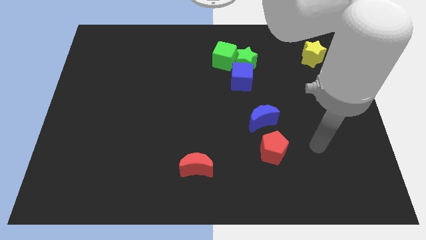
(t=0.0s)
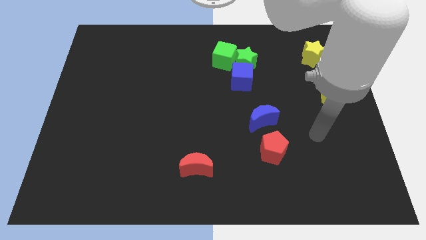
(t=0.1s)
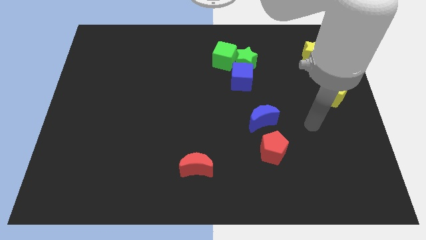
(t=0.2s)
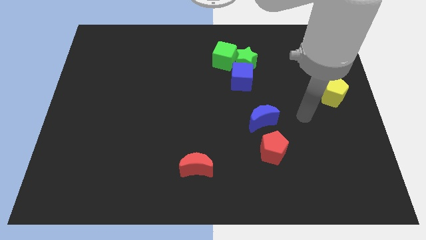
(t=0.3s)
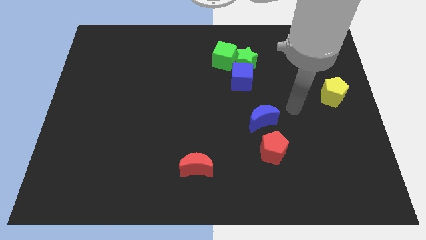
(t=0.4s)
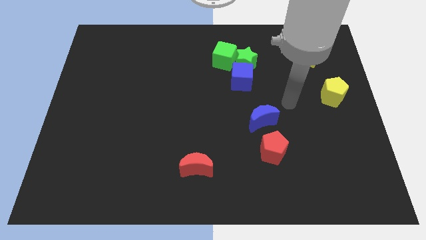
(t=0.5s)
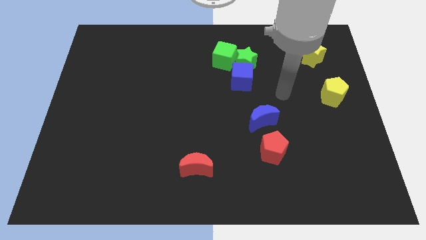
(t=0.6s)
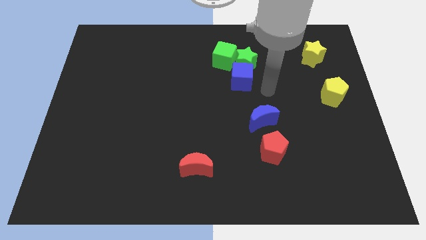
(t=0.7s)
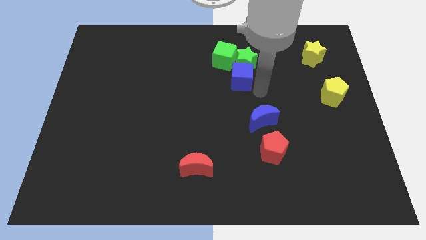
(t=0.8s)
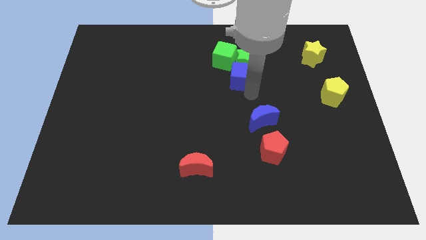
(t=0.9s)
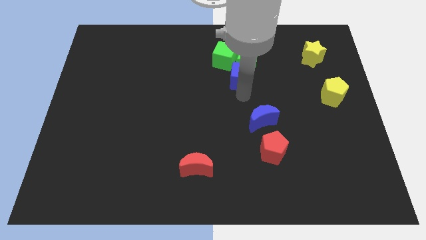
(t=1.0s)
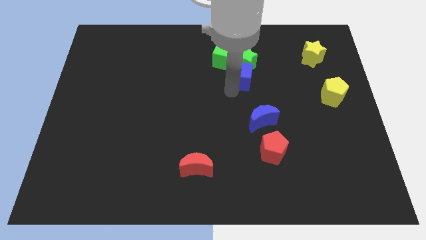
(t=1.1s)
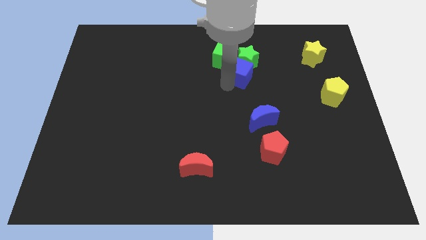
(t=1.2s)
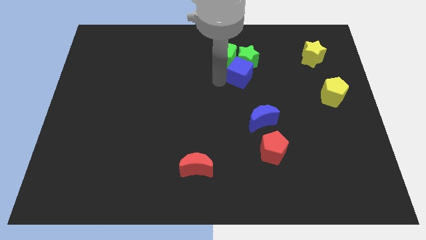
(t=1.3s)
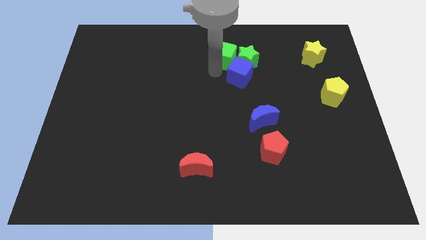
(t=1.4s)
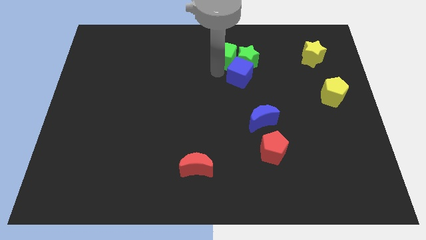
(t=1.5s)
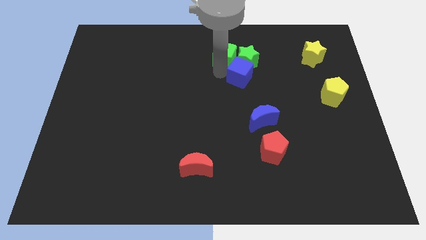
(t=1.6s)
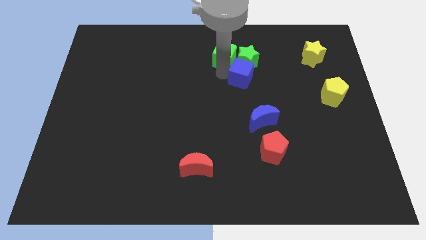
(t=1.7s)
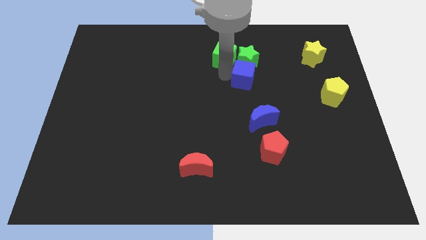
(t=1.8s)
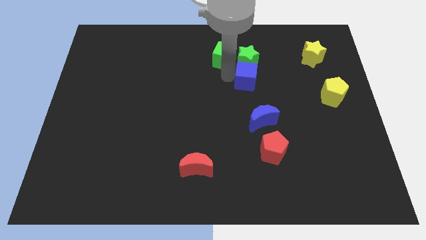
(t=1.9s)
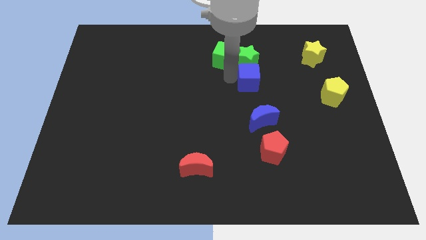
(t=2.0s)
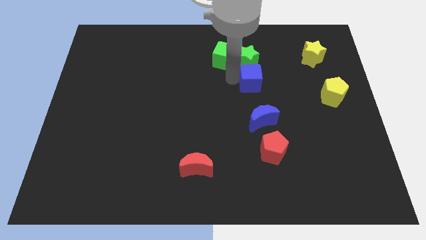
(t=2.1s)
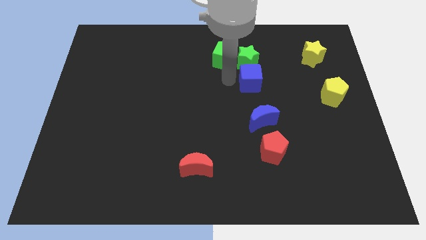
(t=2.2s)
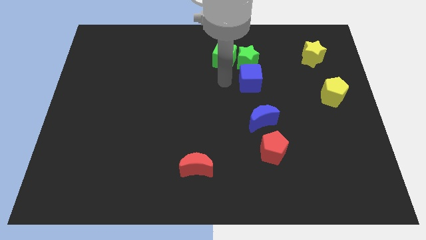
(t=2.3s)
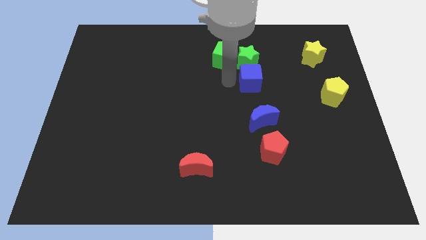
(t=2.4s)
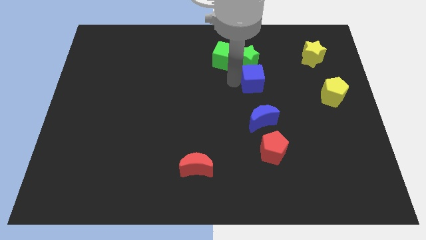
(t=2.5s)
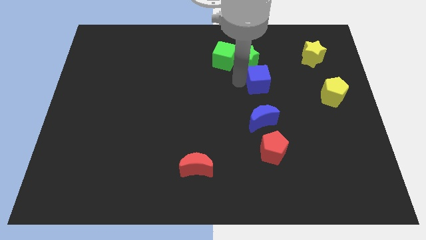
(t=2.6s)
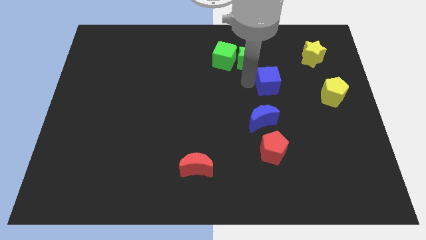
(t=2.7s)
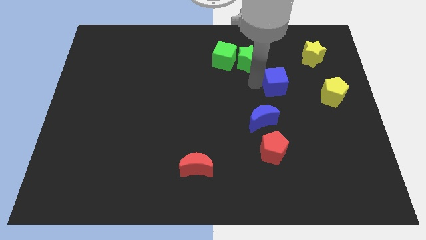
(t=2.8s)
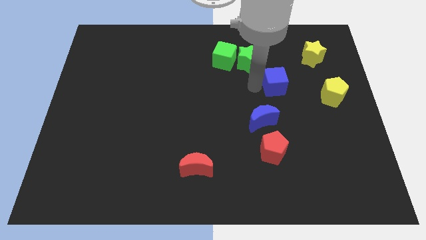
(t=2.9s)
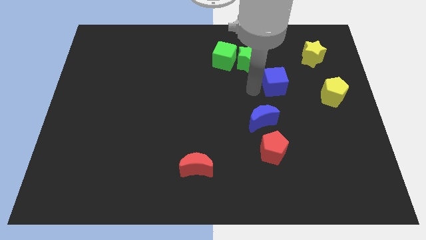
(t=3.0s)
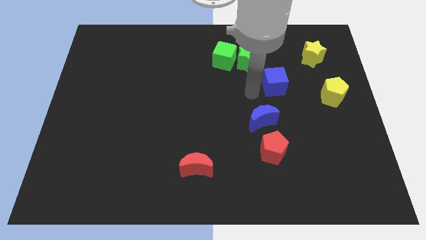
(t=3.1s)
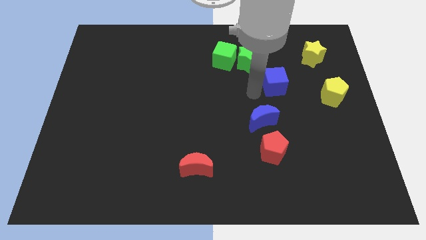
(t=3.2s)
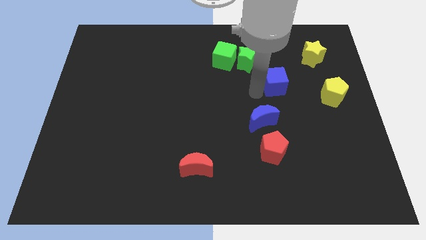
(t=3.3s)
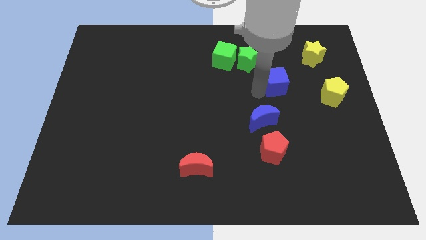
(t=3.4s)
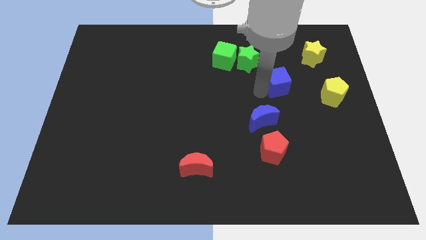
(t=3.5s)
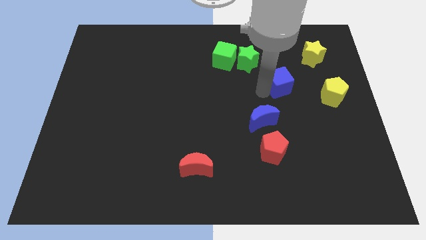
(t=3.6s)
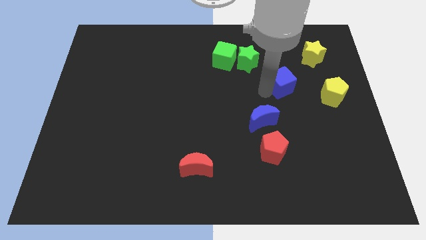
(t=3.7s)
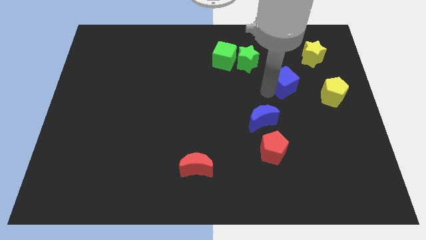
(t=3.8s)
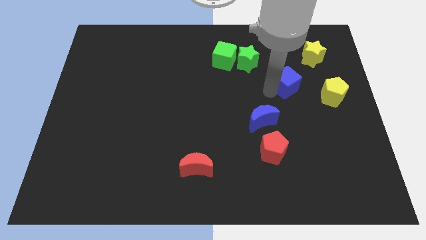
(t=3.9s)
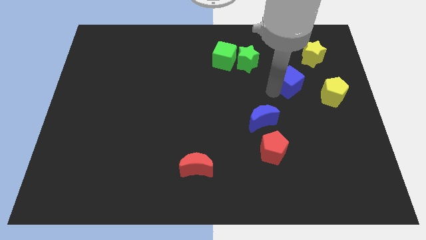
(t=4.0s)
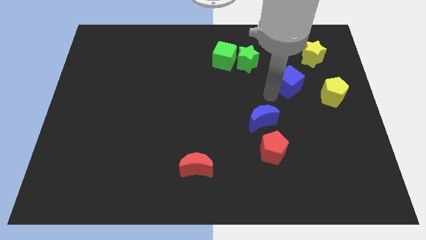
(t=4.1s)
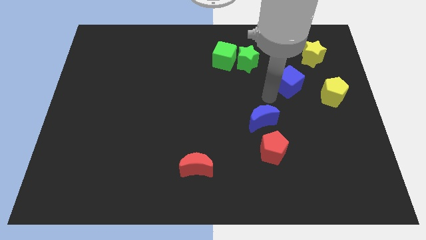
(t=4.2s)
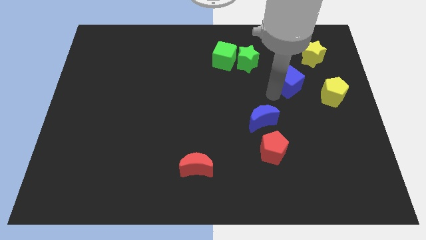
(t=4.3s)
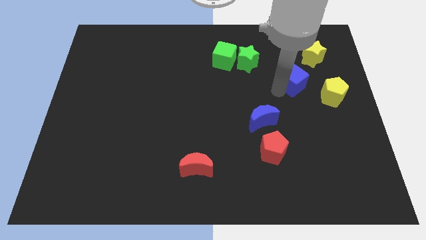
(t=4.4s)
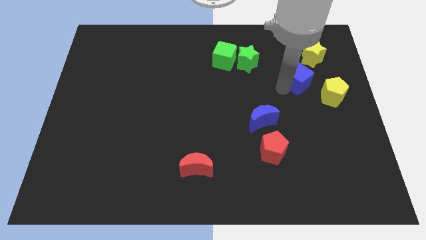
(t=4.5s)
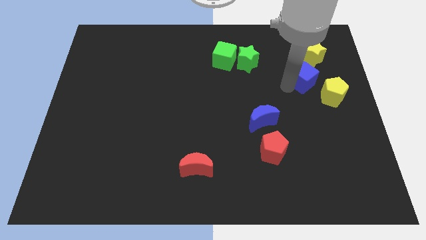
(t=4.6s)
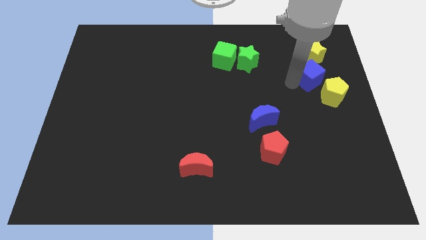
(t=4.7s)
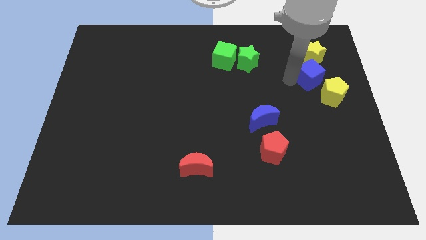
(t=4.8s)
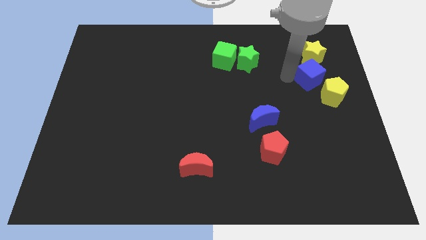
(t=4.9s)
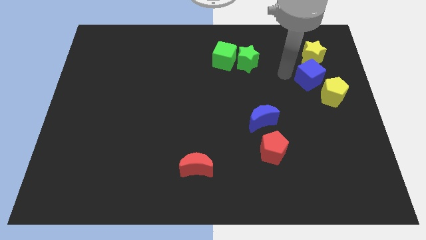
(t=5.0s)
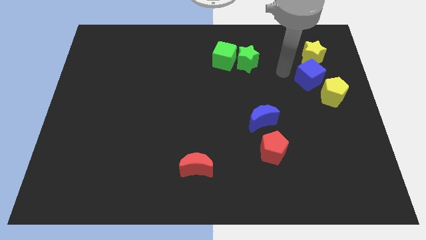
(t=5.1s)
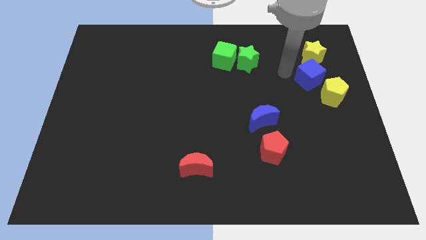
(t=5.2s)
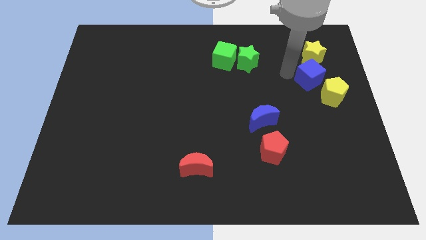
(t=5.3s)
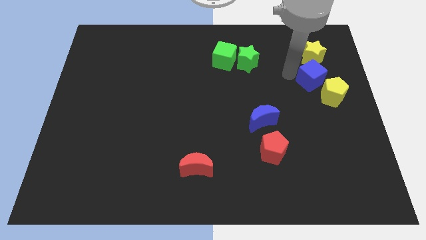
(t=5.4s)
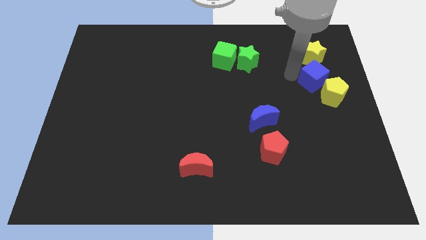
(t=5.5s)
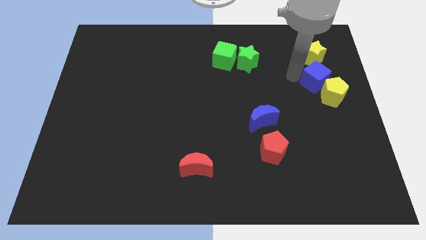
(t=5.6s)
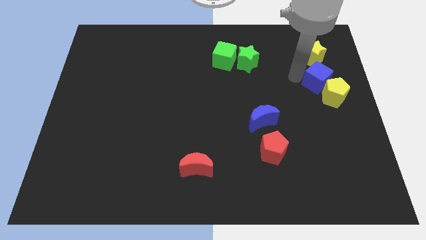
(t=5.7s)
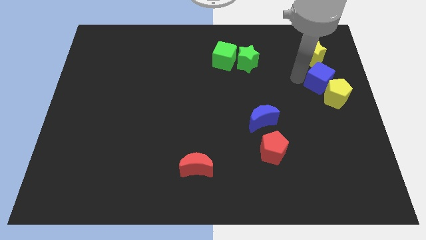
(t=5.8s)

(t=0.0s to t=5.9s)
push the blue cube to the right side
